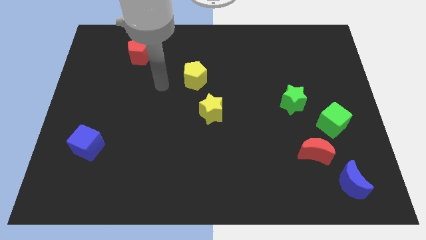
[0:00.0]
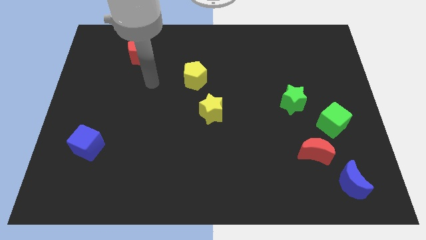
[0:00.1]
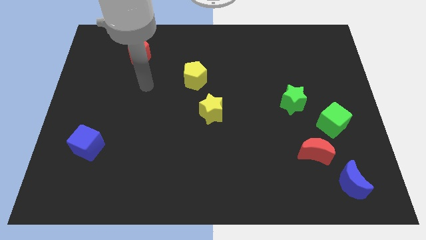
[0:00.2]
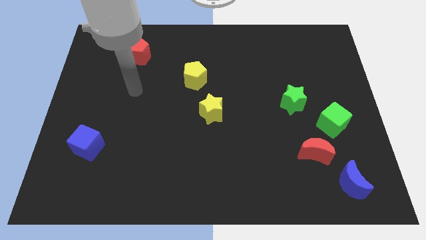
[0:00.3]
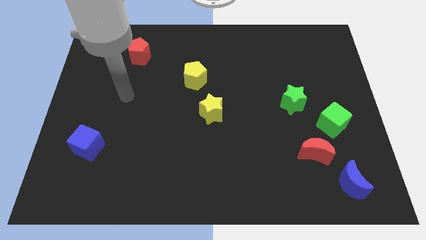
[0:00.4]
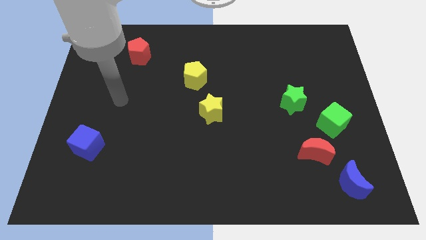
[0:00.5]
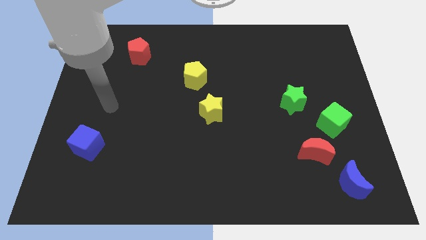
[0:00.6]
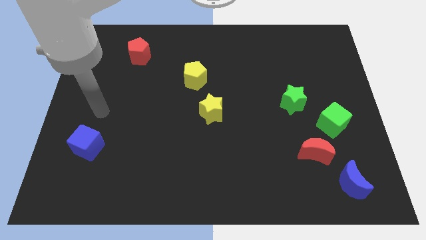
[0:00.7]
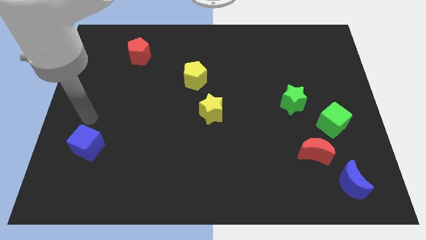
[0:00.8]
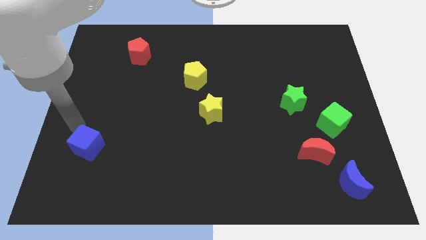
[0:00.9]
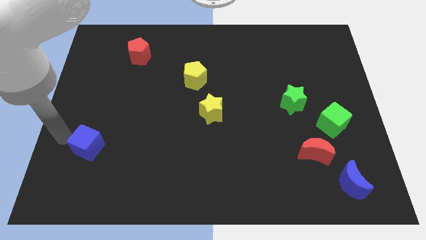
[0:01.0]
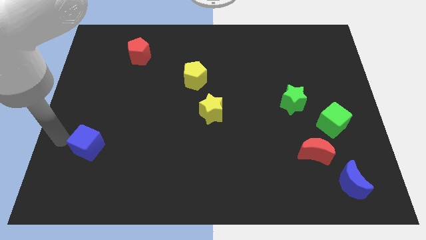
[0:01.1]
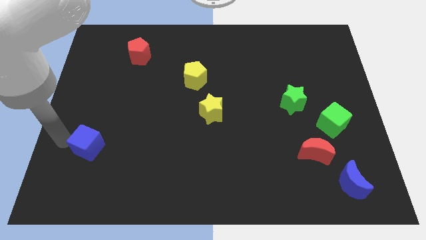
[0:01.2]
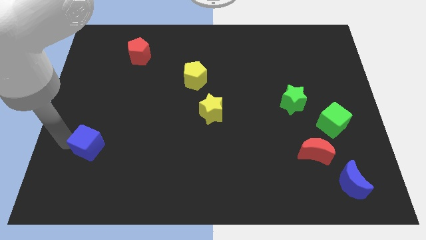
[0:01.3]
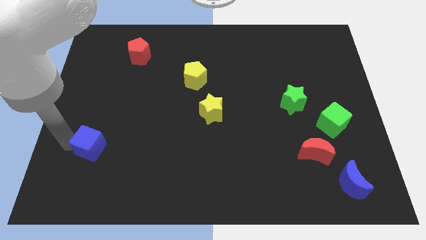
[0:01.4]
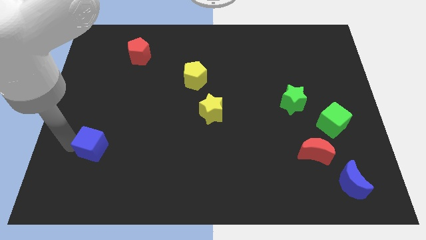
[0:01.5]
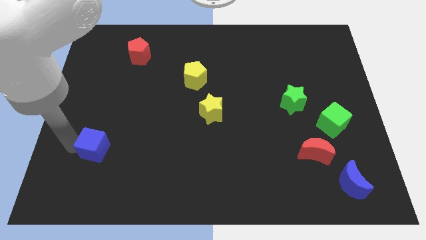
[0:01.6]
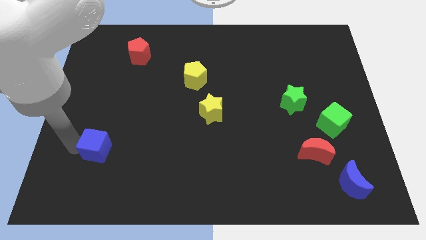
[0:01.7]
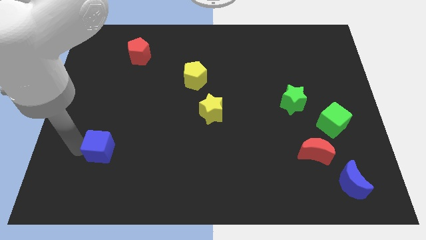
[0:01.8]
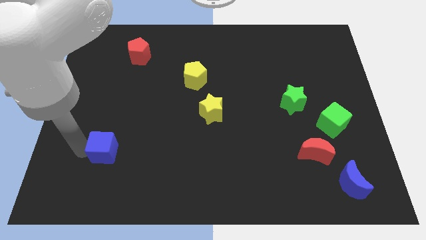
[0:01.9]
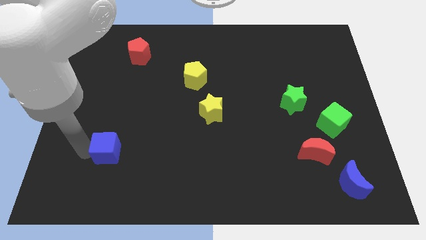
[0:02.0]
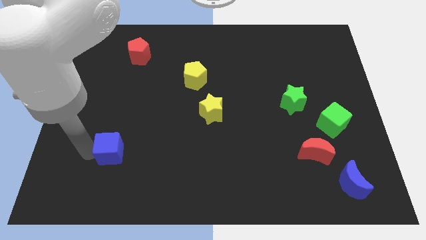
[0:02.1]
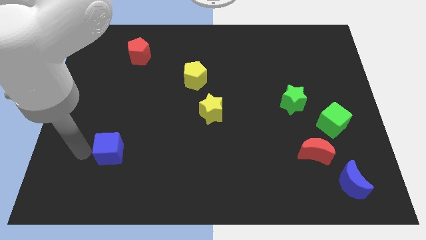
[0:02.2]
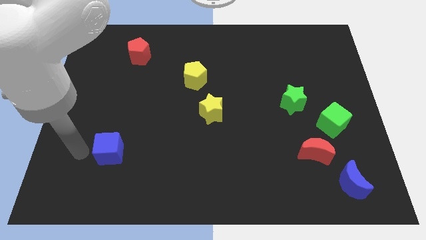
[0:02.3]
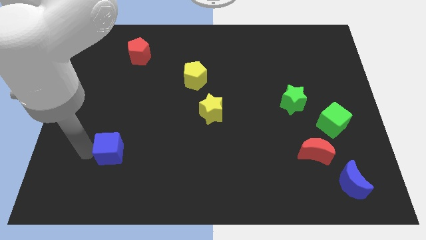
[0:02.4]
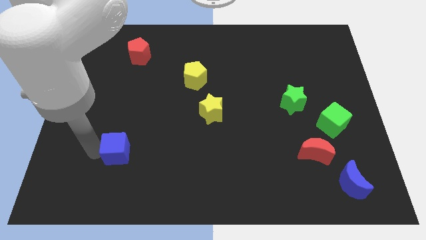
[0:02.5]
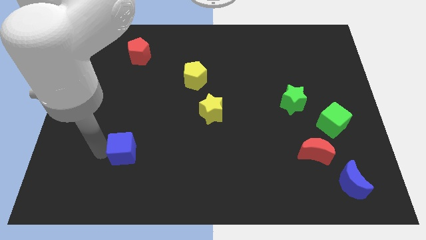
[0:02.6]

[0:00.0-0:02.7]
slide the blue cube to the right somewhat

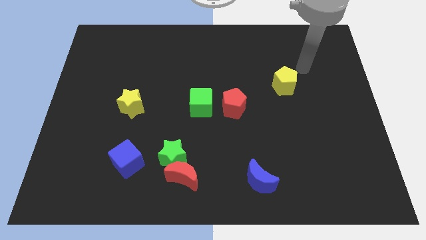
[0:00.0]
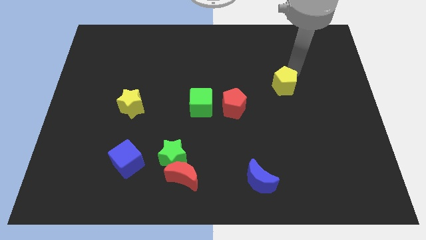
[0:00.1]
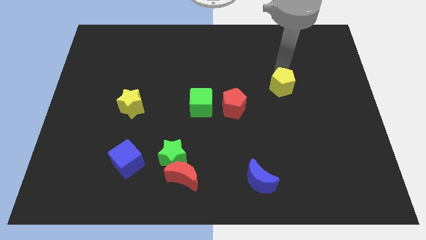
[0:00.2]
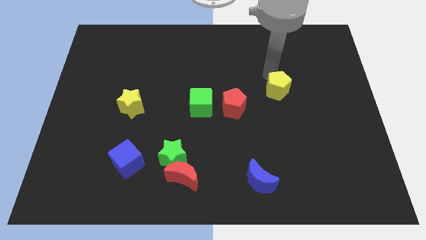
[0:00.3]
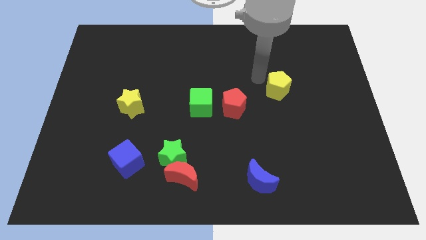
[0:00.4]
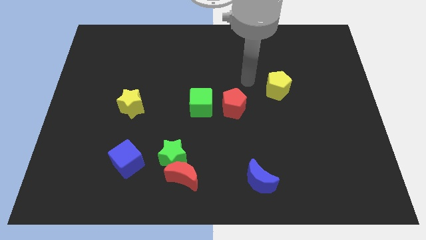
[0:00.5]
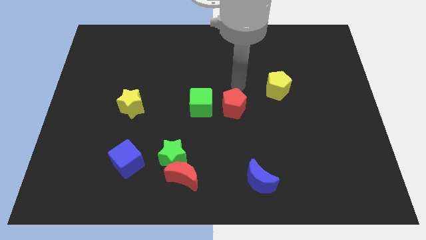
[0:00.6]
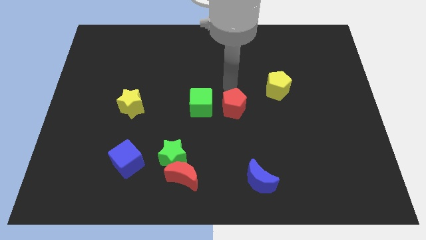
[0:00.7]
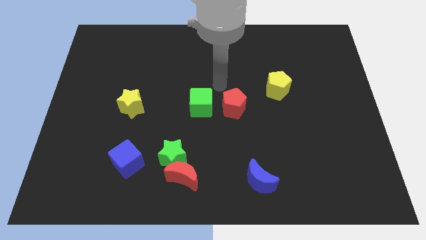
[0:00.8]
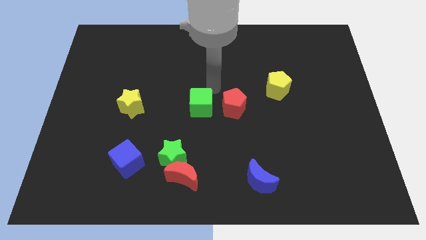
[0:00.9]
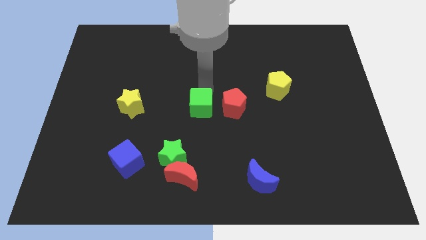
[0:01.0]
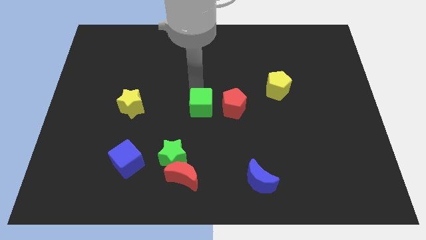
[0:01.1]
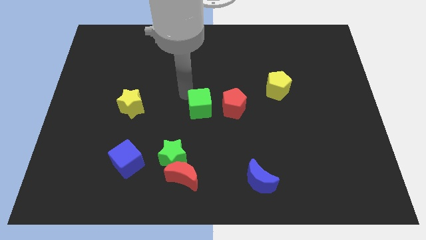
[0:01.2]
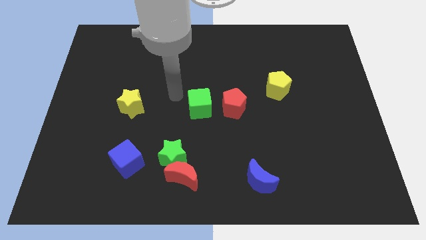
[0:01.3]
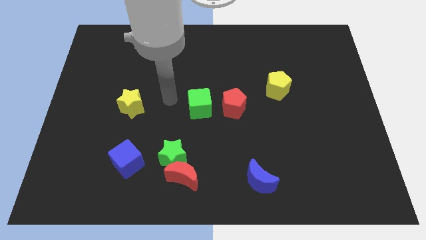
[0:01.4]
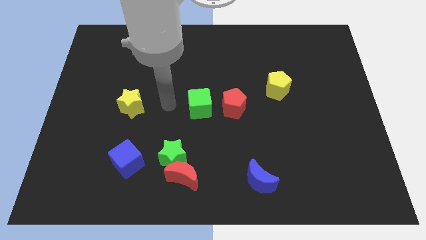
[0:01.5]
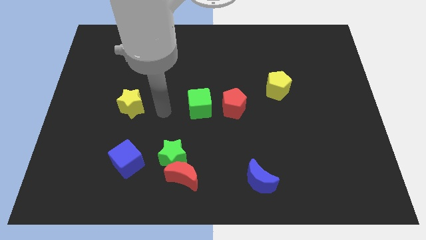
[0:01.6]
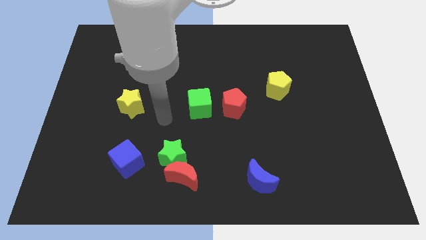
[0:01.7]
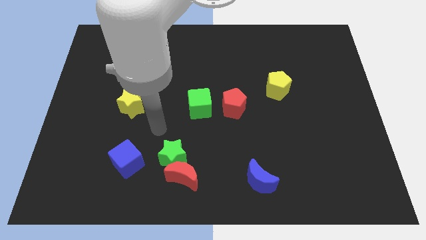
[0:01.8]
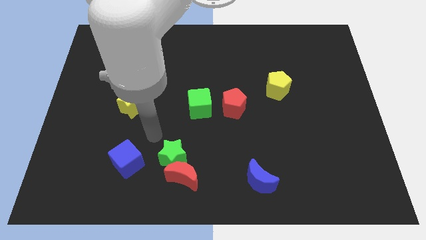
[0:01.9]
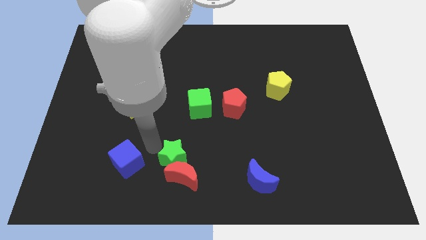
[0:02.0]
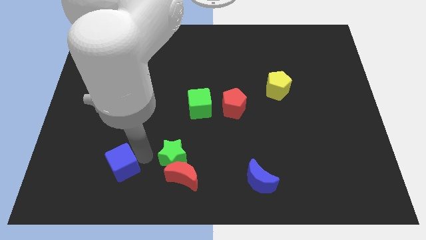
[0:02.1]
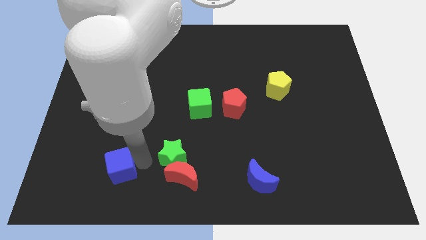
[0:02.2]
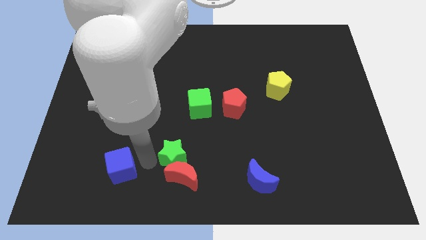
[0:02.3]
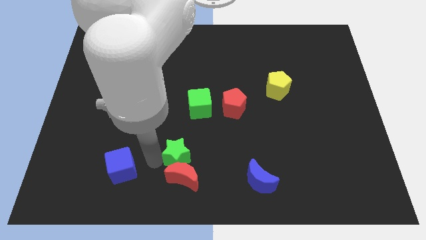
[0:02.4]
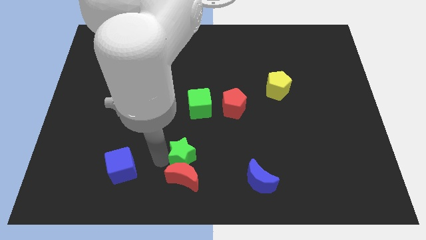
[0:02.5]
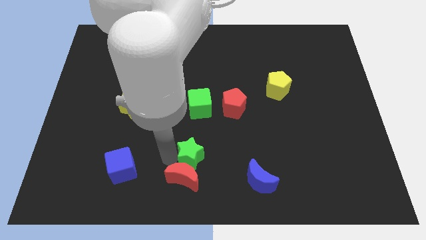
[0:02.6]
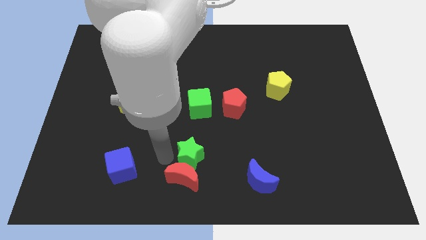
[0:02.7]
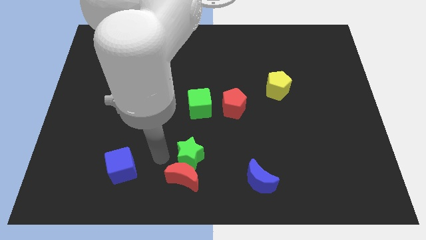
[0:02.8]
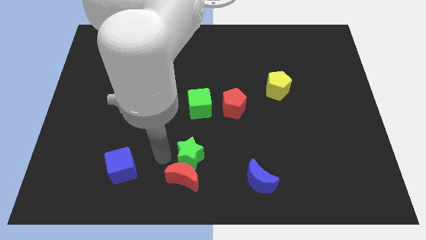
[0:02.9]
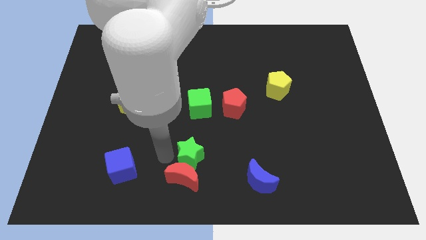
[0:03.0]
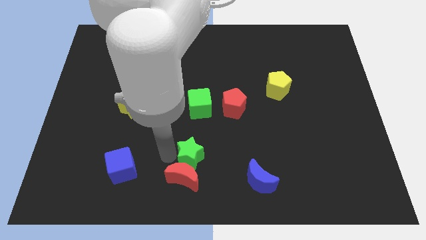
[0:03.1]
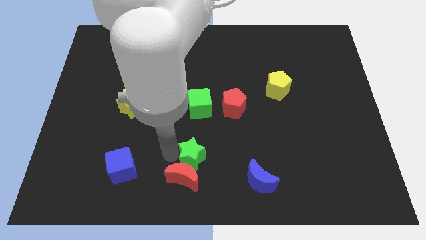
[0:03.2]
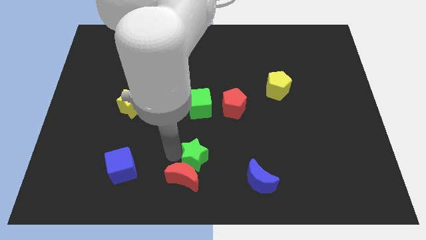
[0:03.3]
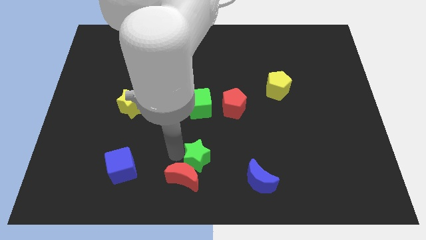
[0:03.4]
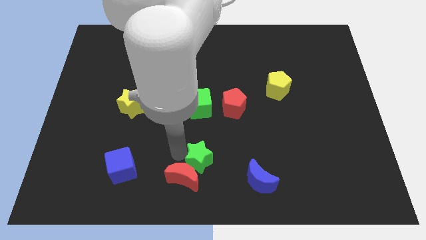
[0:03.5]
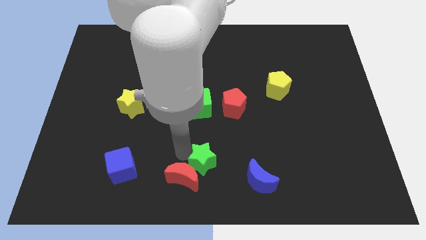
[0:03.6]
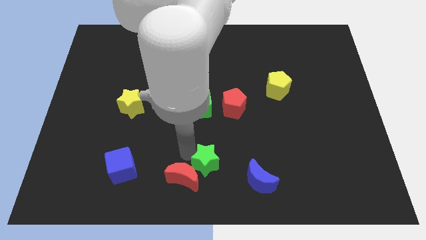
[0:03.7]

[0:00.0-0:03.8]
move the green star a little bit right

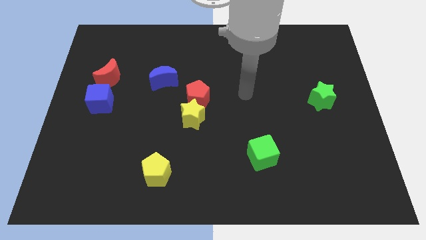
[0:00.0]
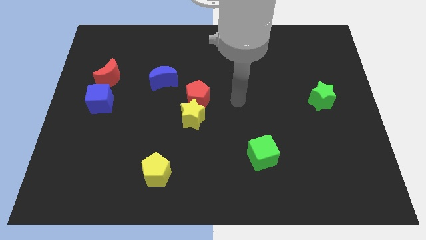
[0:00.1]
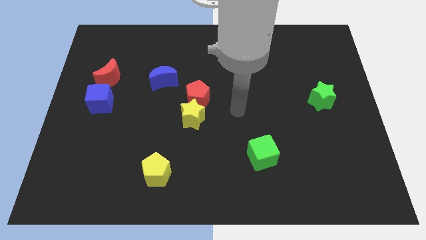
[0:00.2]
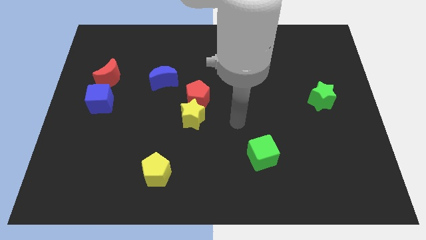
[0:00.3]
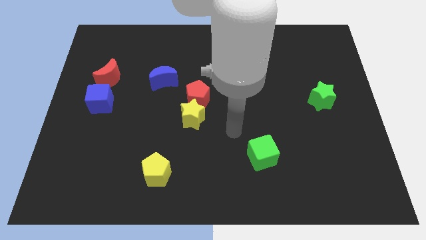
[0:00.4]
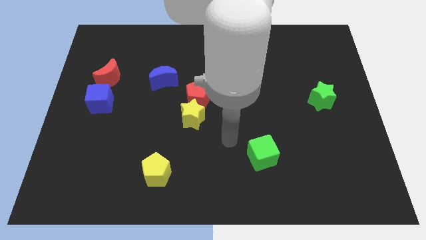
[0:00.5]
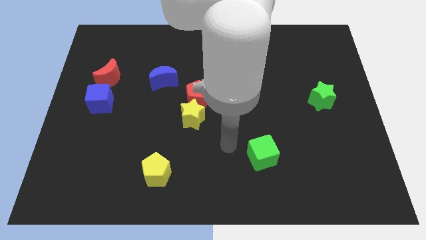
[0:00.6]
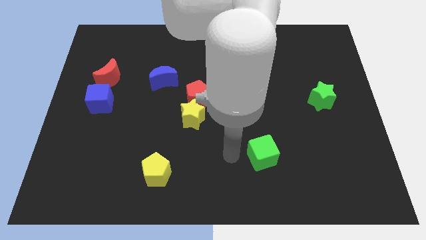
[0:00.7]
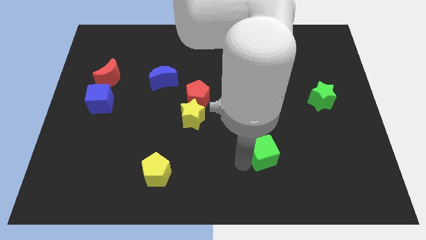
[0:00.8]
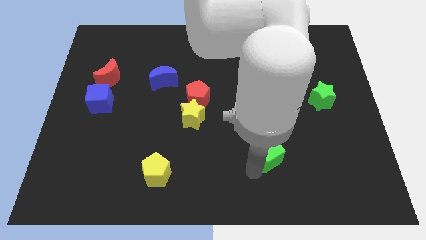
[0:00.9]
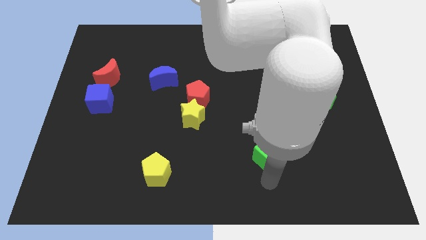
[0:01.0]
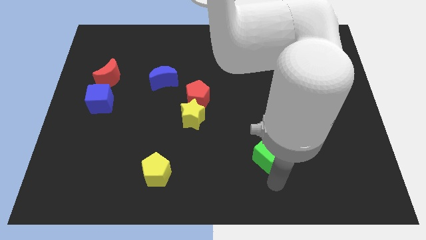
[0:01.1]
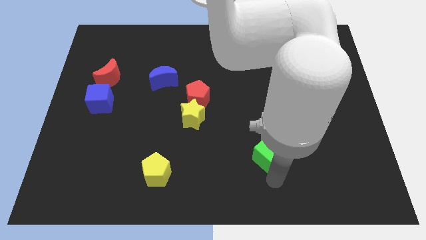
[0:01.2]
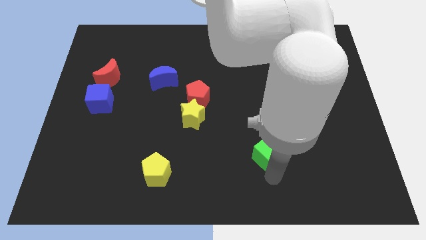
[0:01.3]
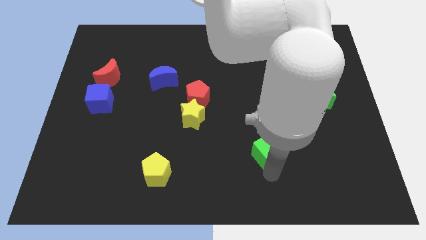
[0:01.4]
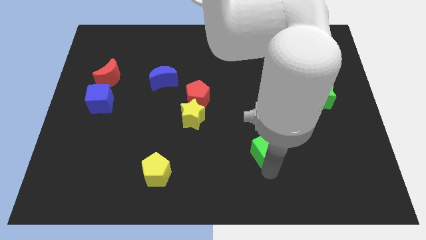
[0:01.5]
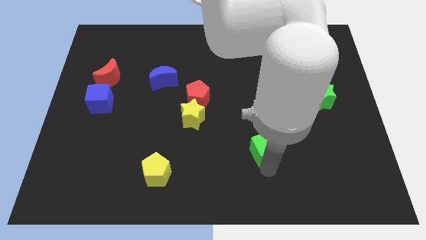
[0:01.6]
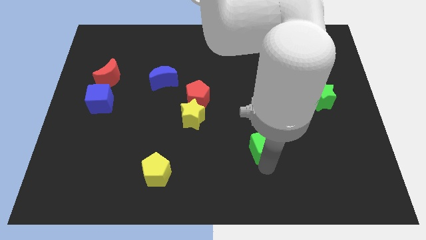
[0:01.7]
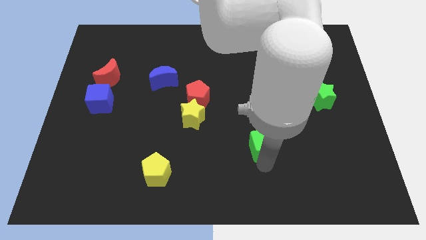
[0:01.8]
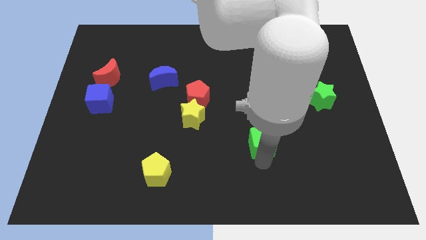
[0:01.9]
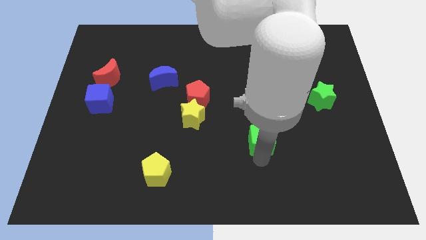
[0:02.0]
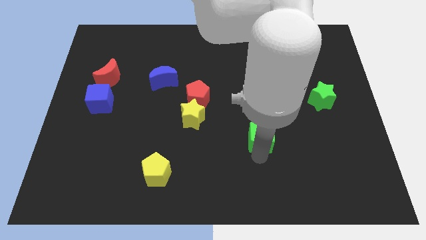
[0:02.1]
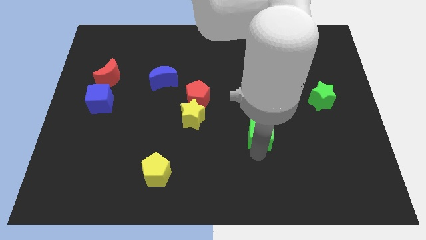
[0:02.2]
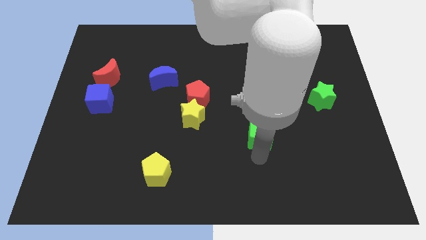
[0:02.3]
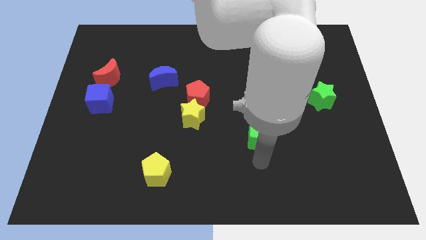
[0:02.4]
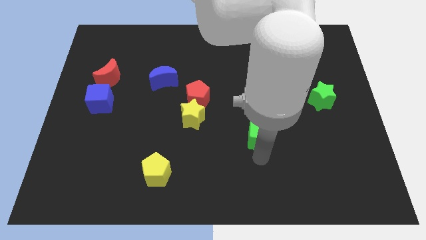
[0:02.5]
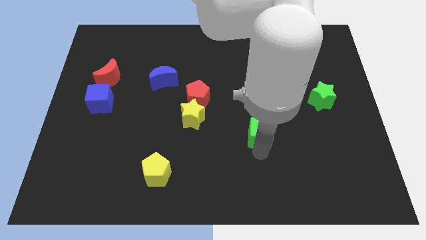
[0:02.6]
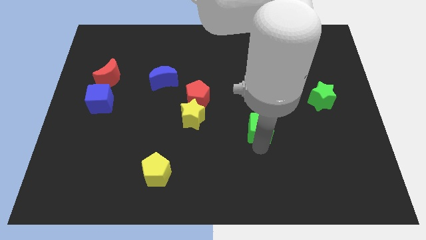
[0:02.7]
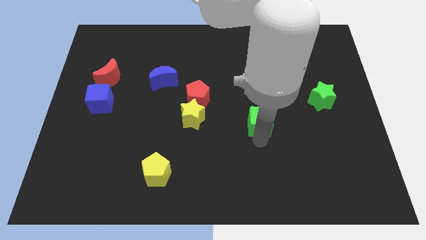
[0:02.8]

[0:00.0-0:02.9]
move the green cube a bit upwards
